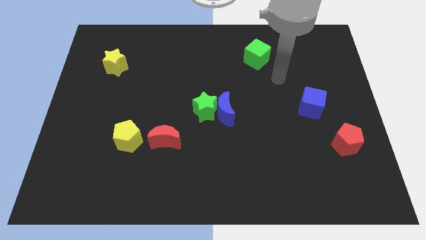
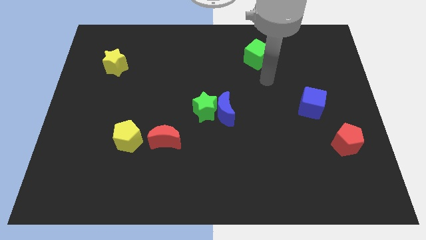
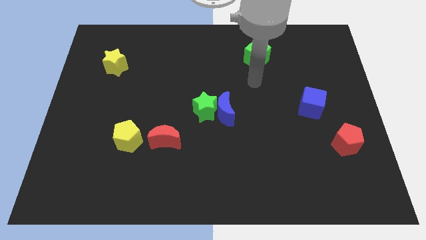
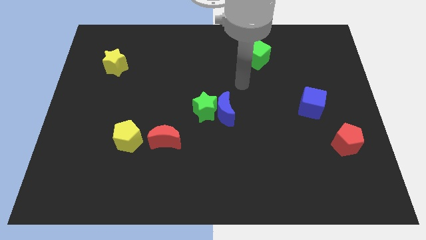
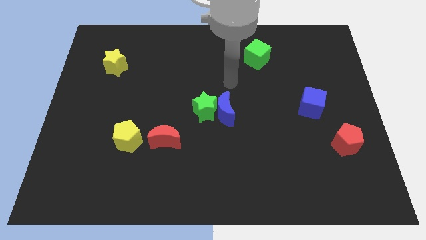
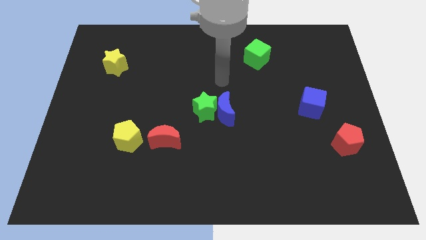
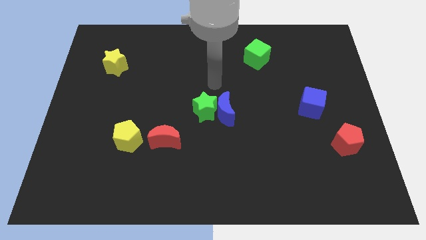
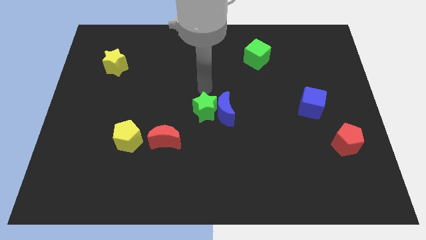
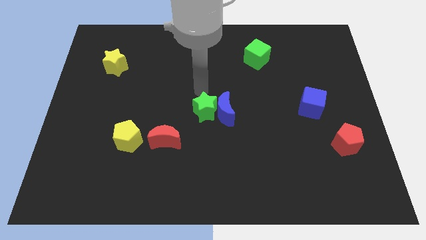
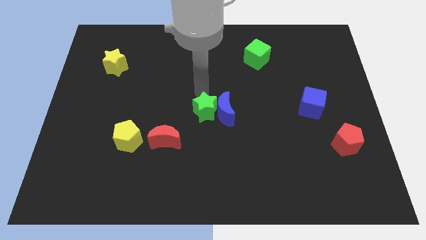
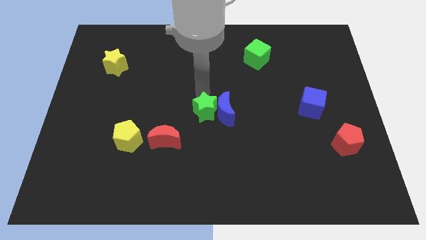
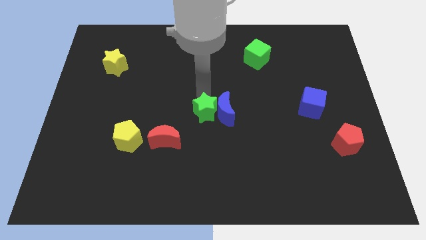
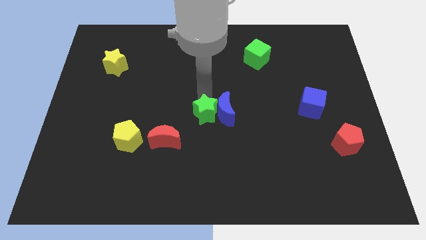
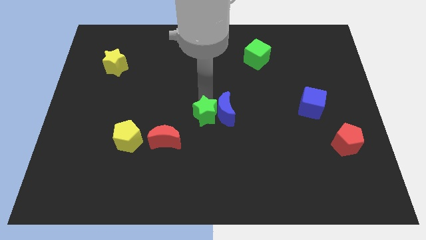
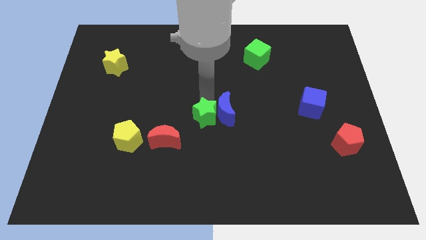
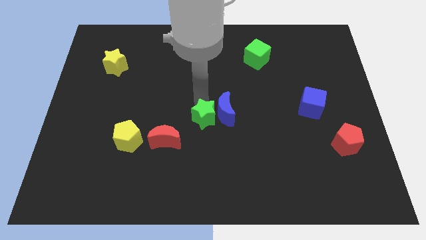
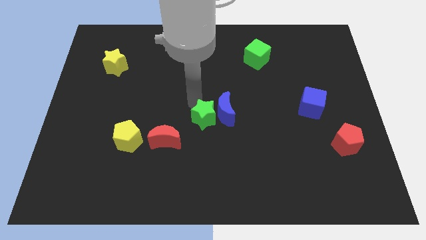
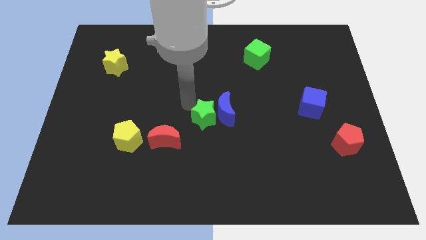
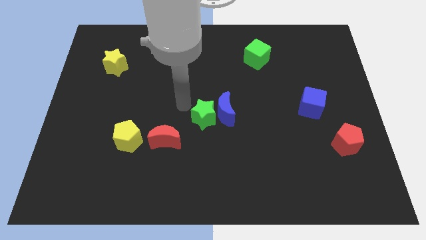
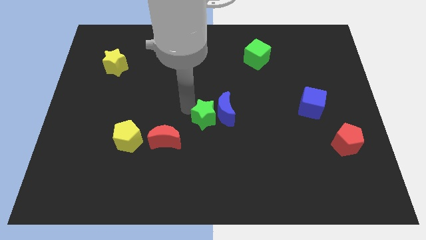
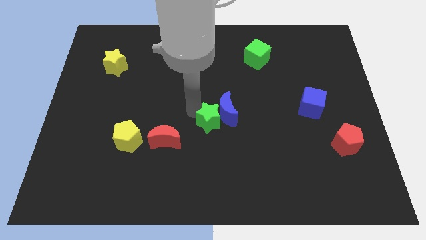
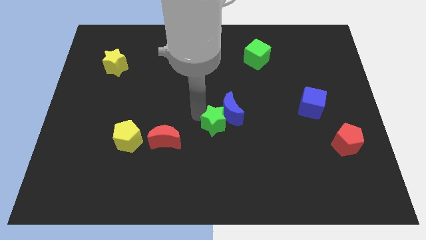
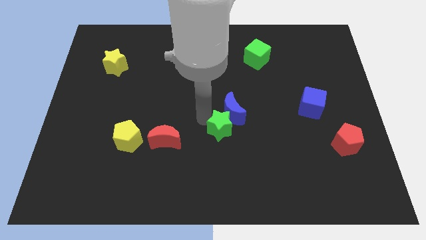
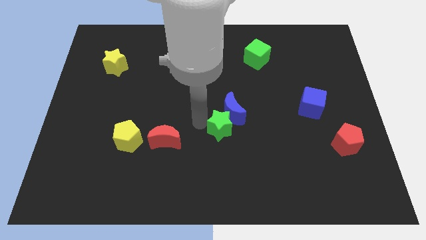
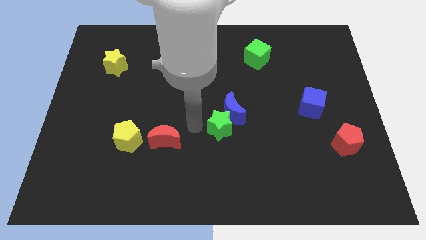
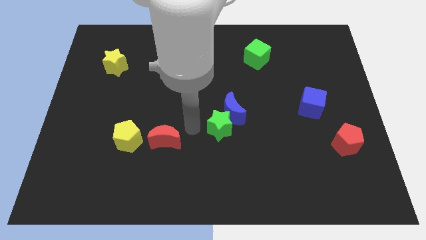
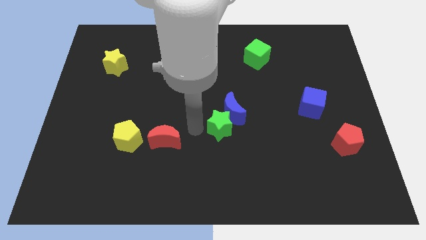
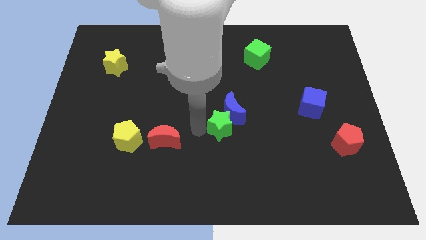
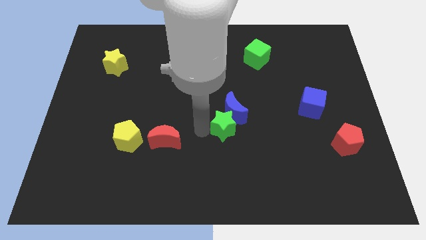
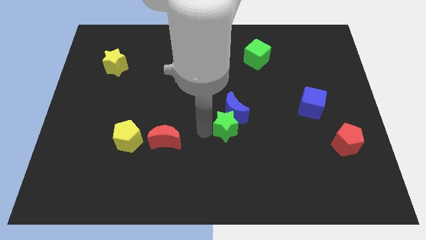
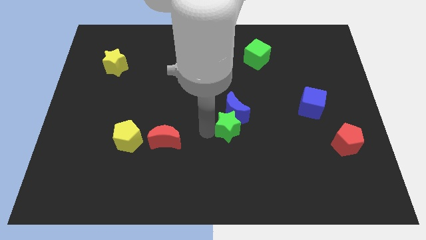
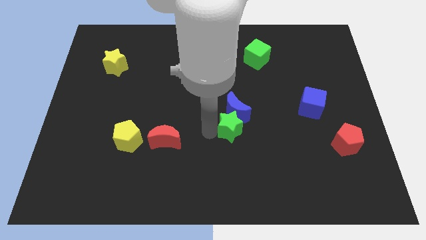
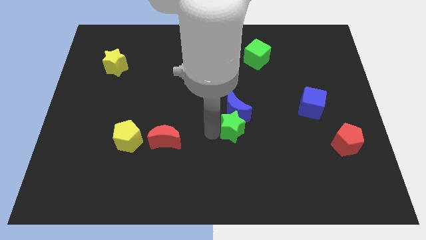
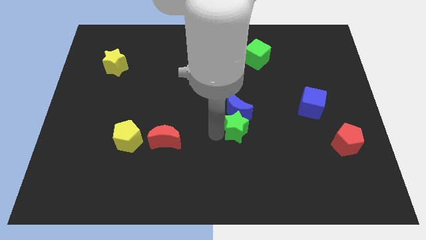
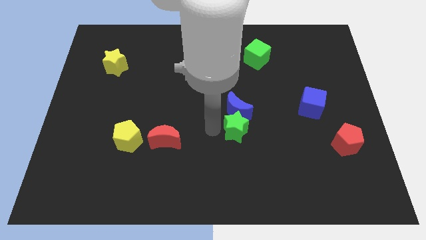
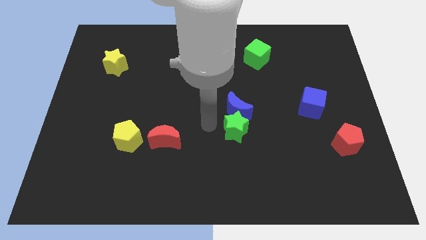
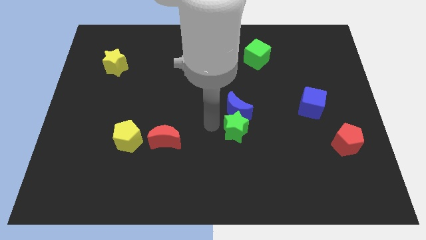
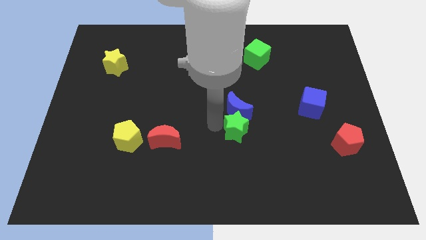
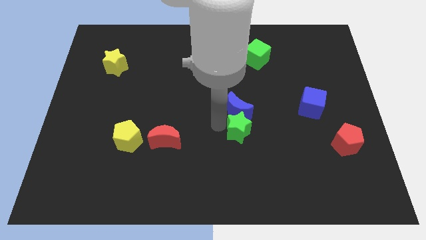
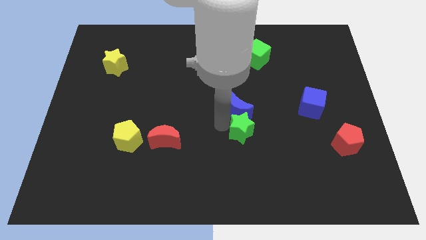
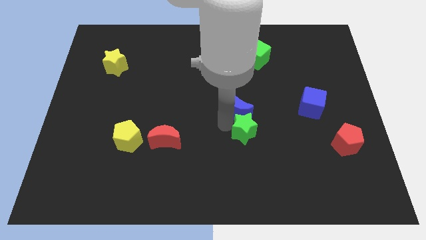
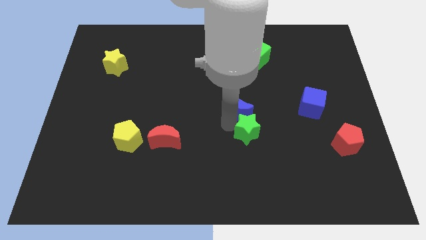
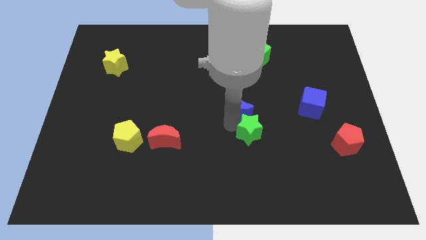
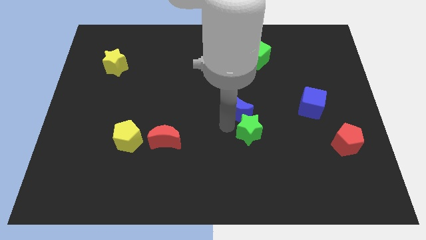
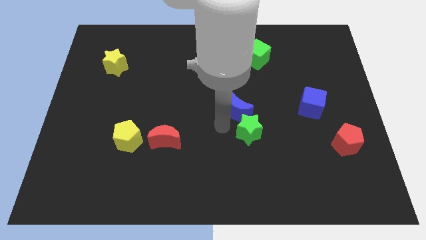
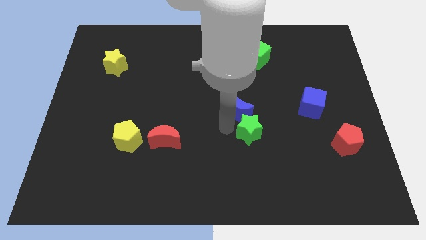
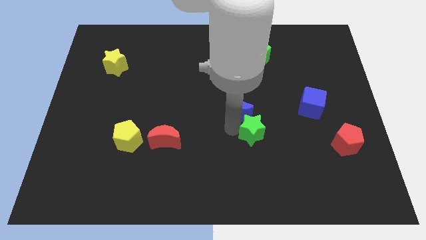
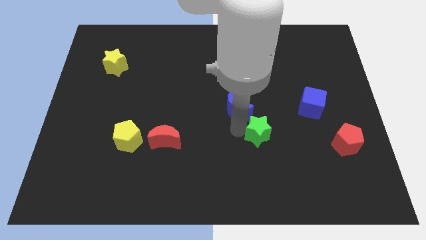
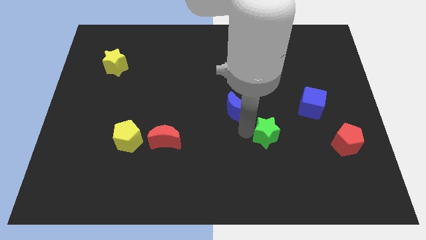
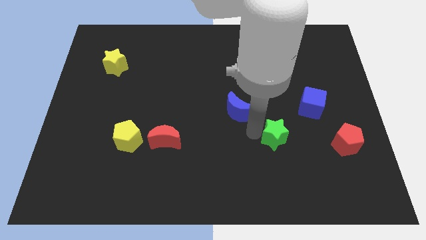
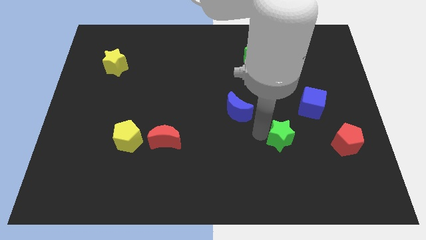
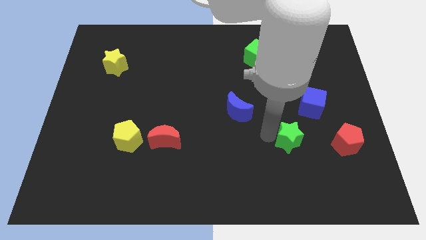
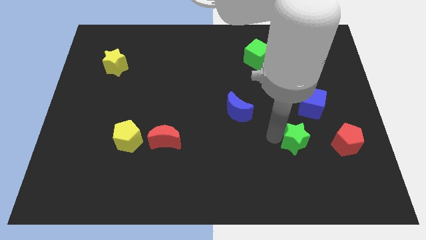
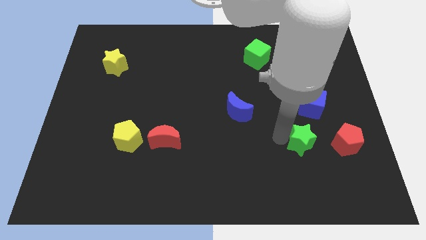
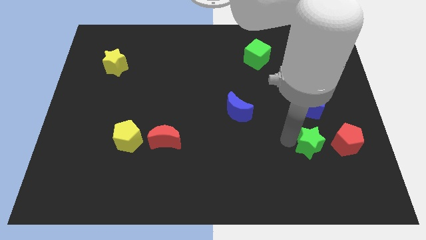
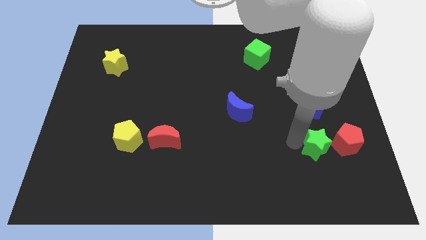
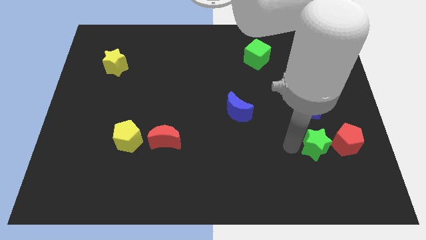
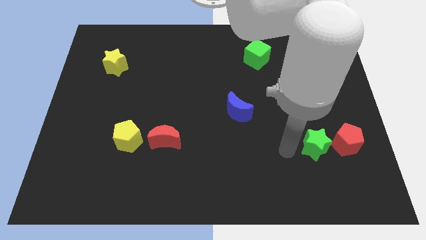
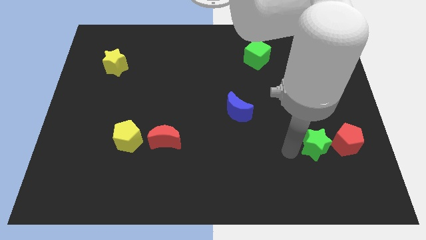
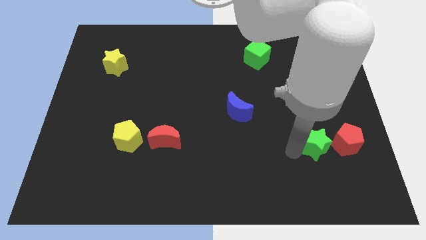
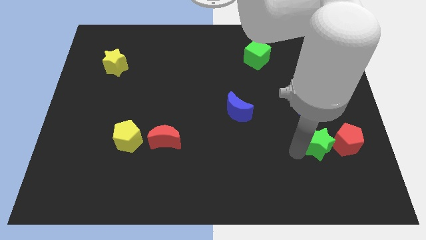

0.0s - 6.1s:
move the green star to the red pentagon
